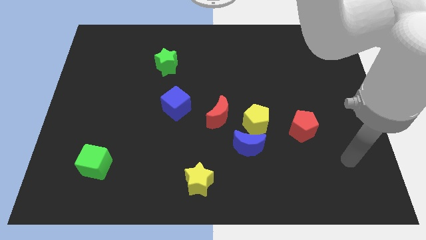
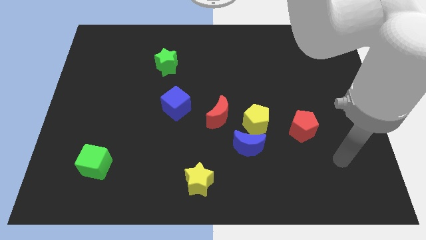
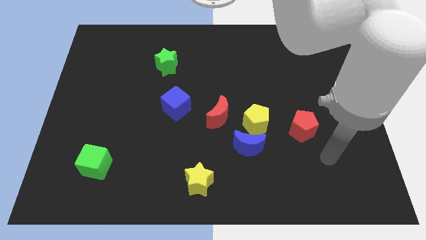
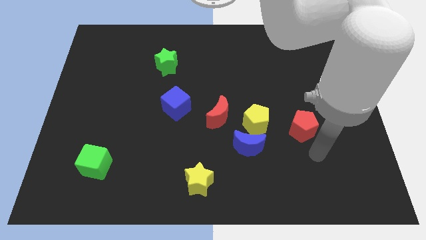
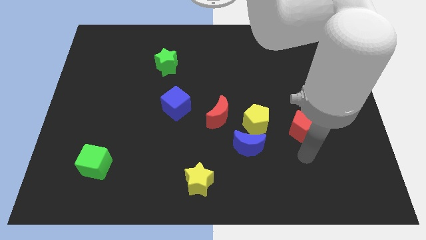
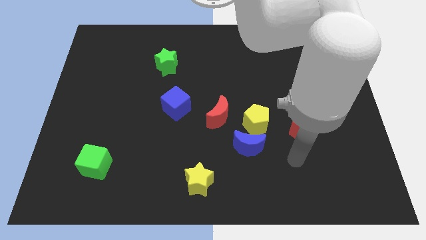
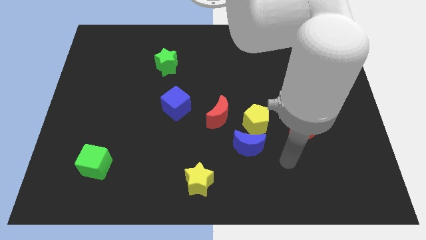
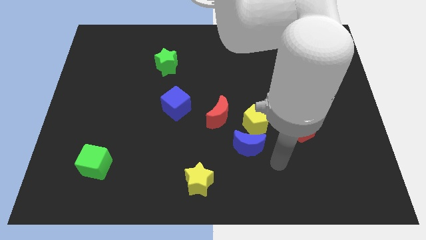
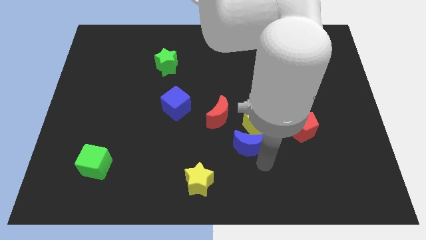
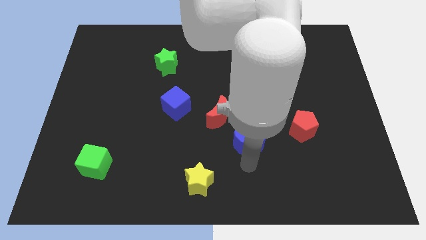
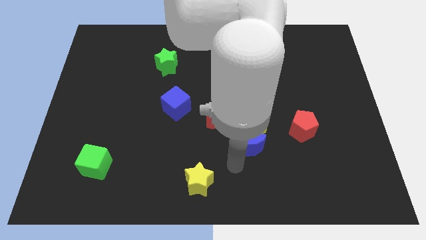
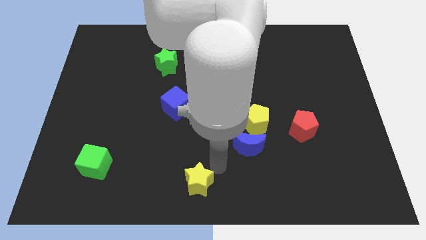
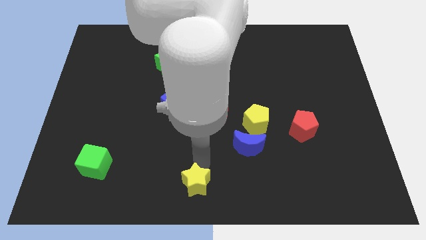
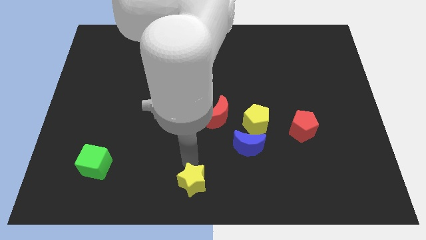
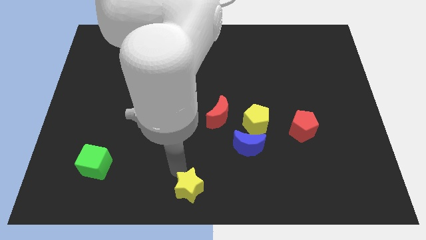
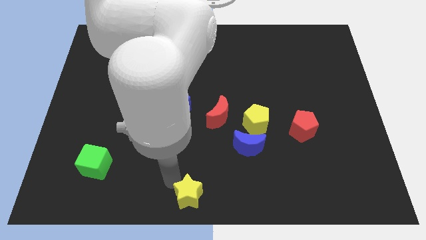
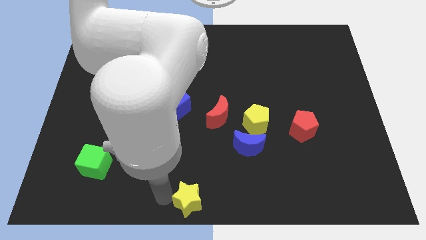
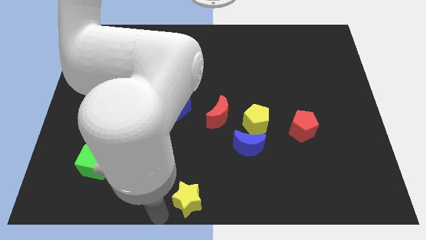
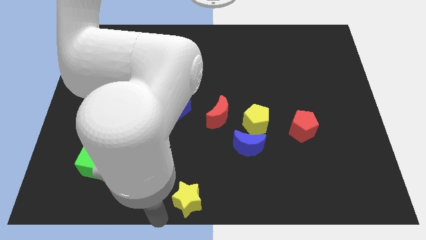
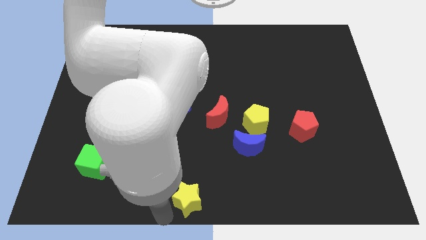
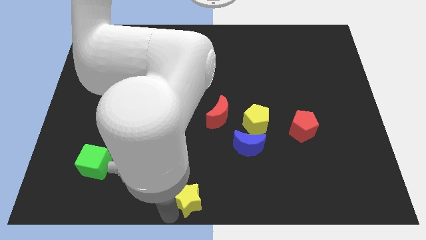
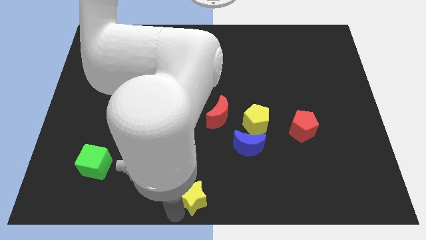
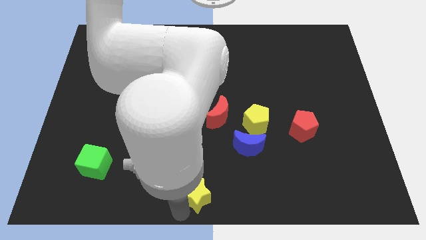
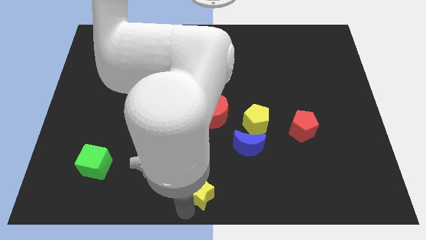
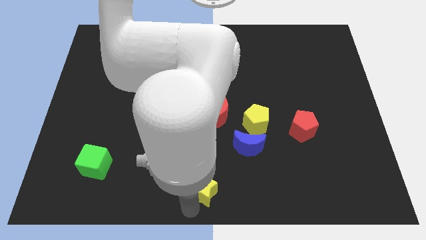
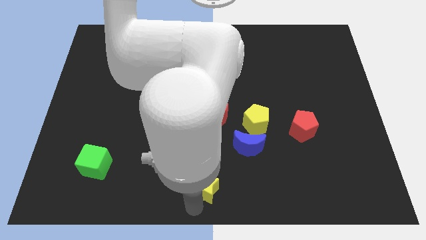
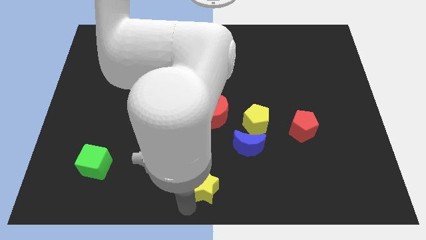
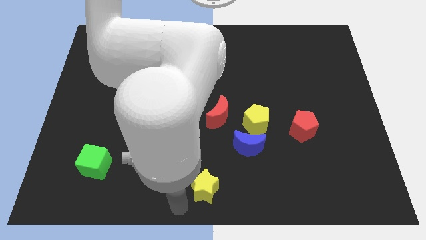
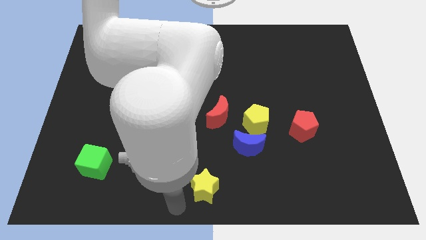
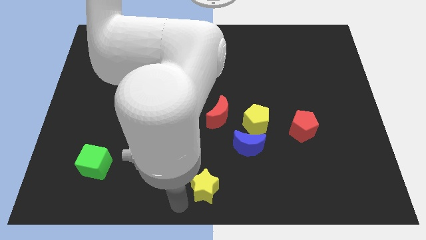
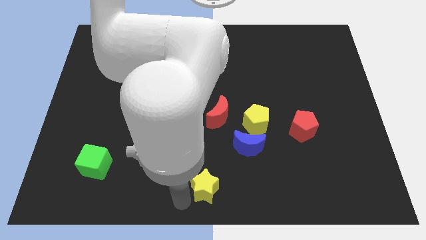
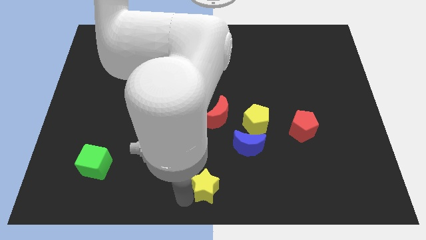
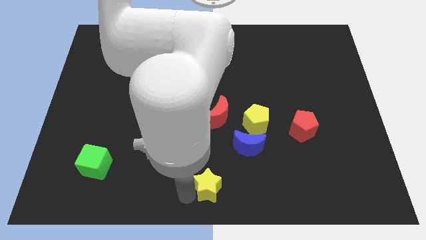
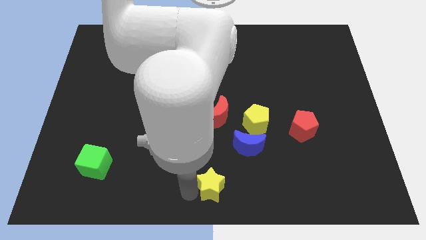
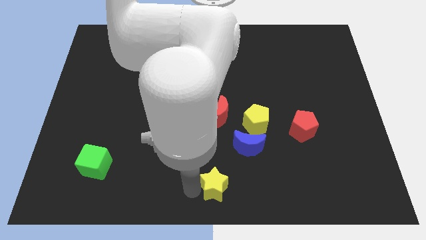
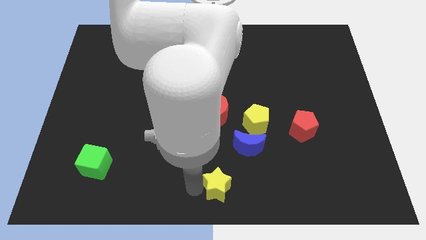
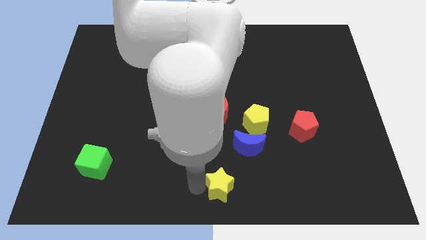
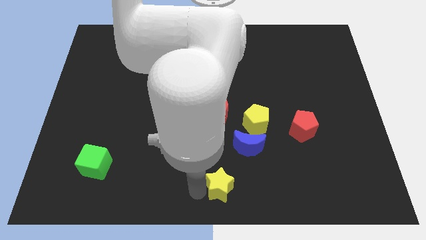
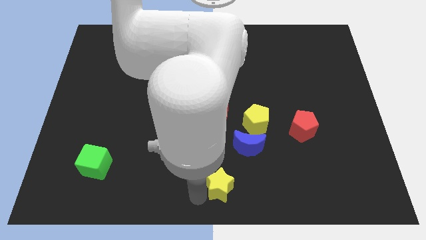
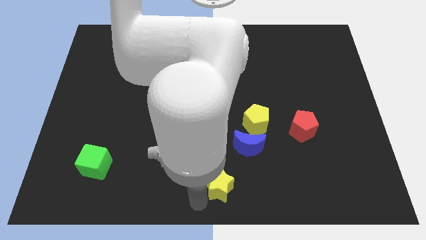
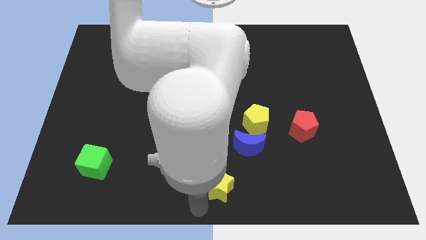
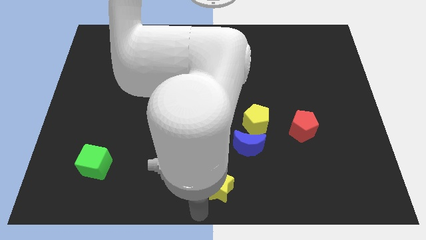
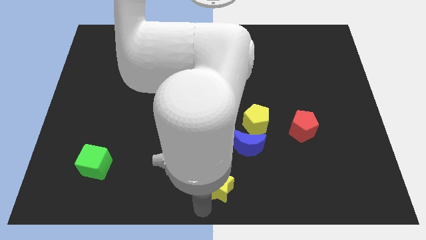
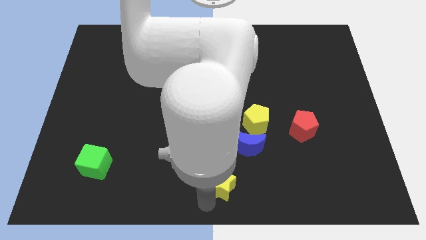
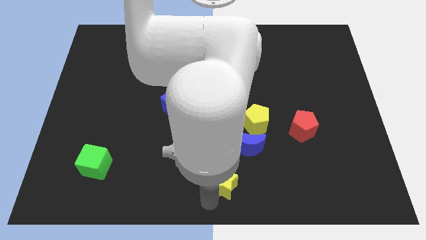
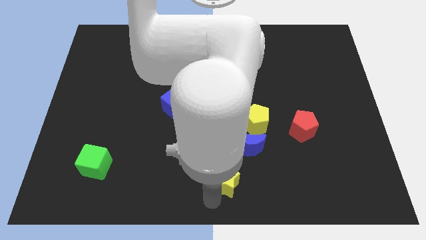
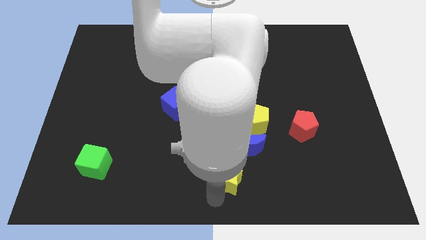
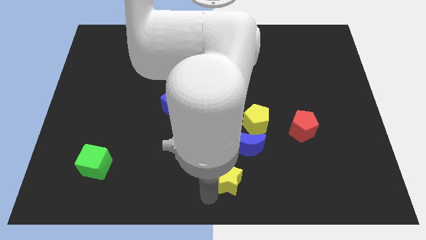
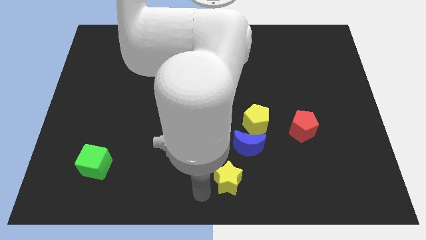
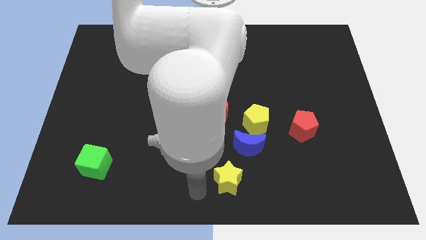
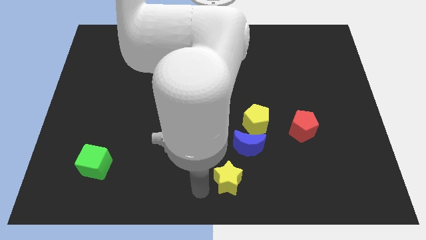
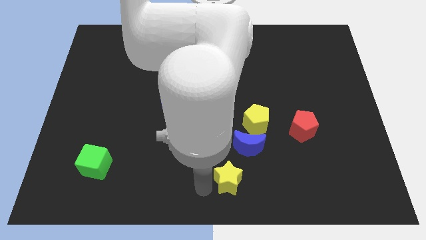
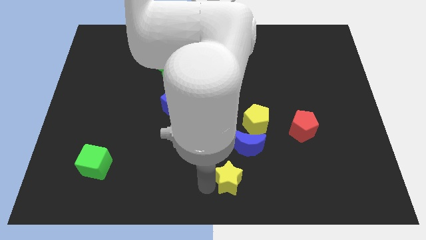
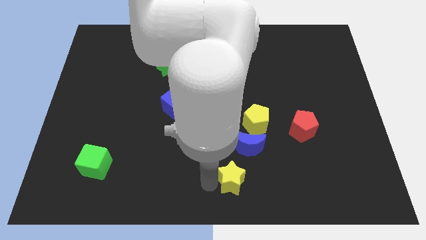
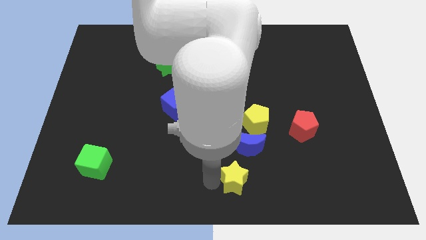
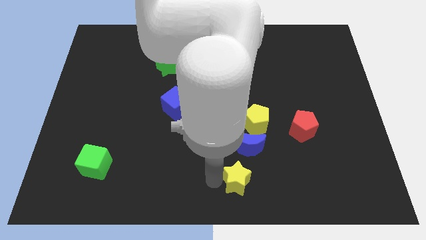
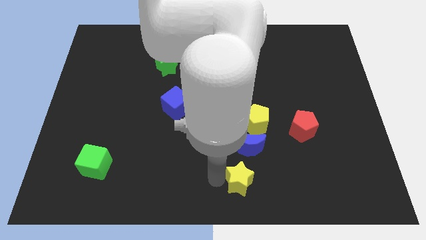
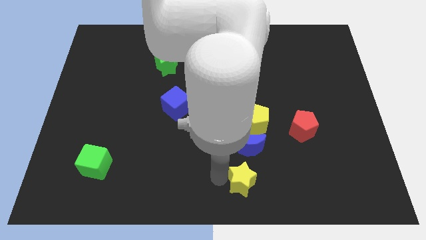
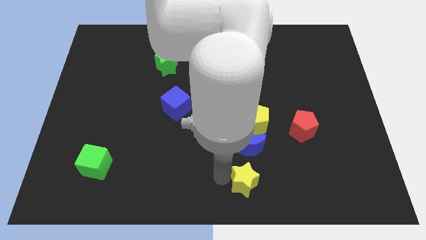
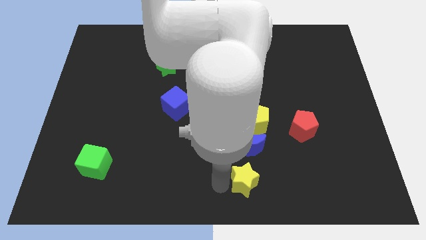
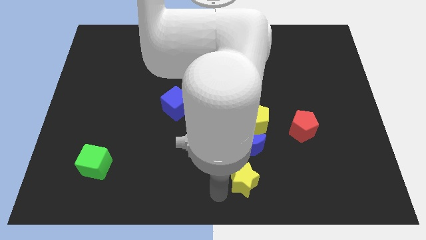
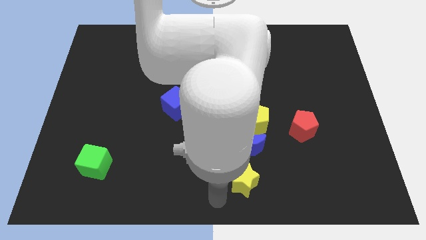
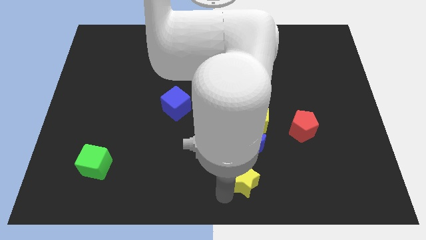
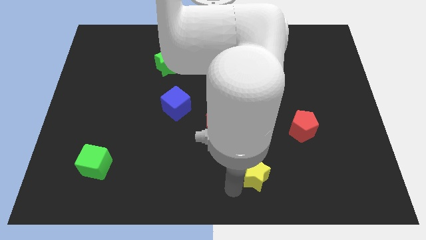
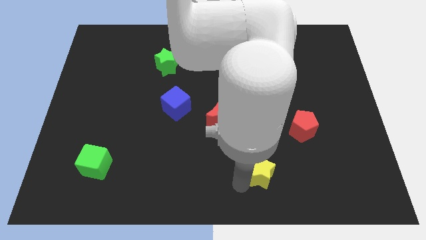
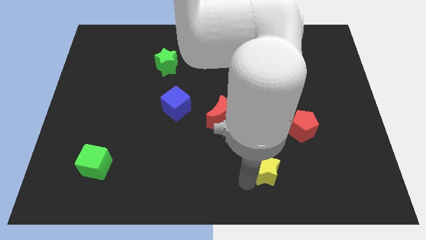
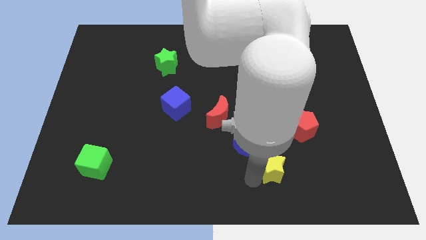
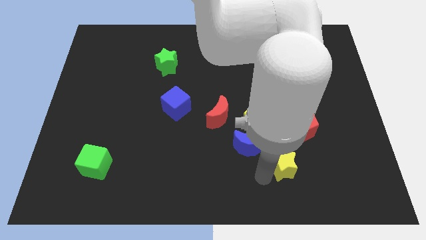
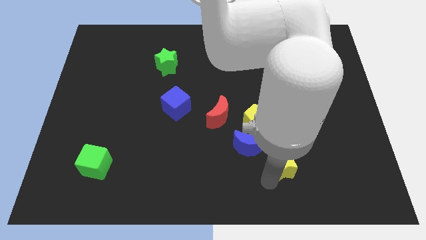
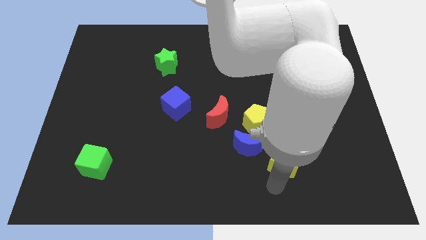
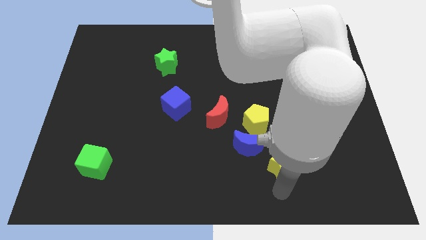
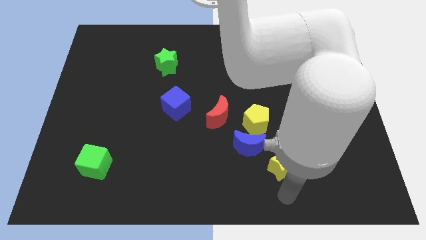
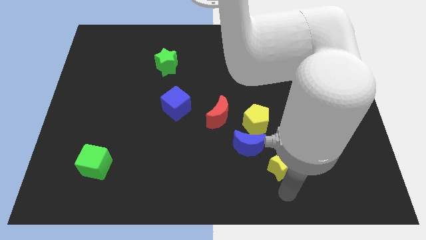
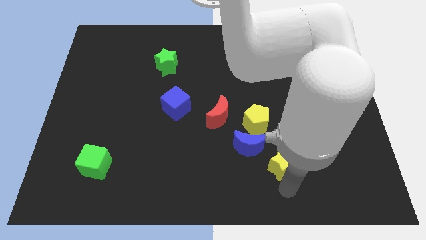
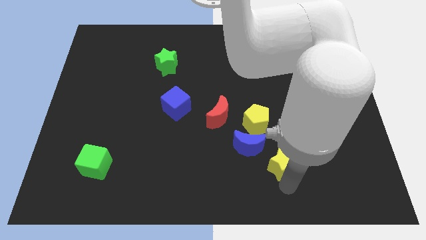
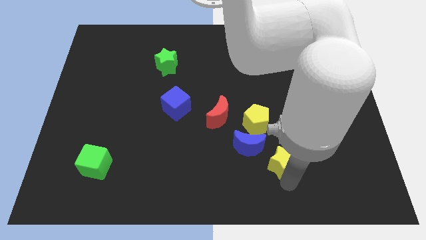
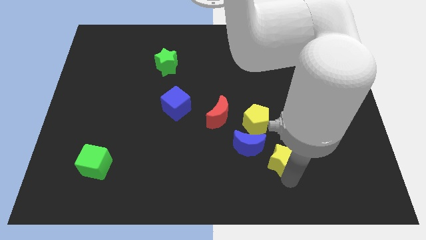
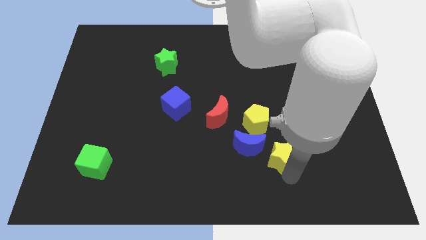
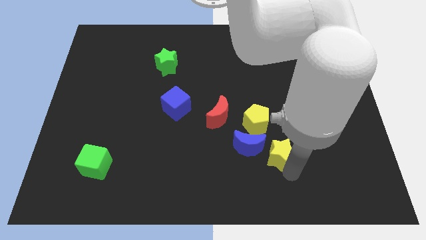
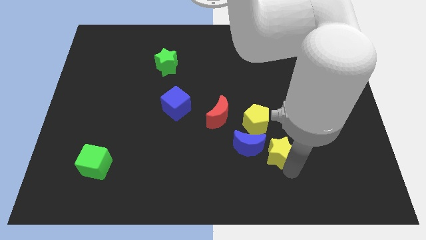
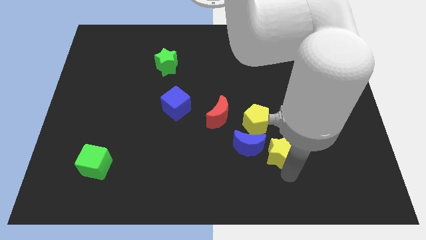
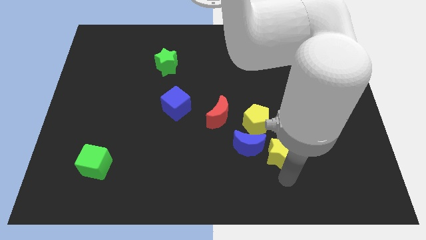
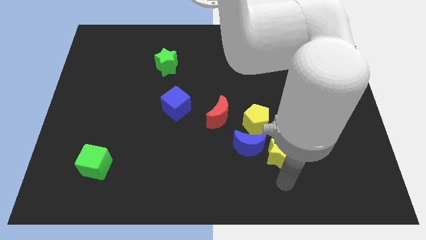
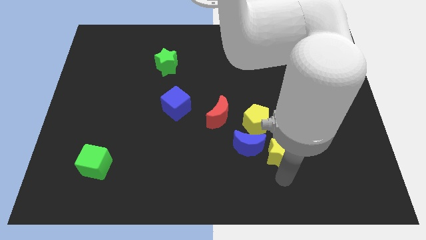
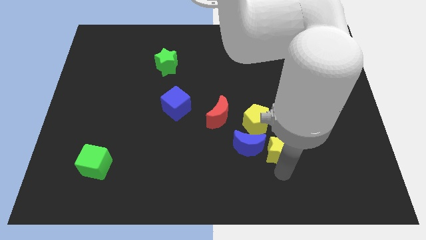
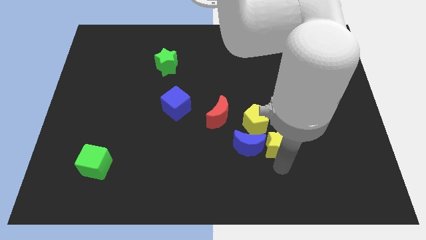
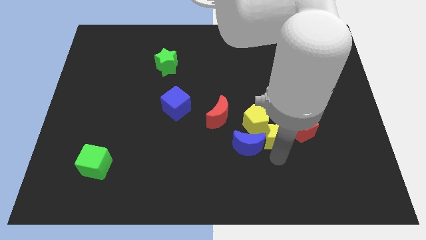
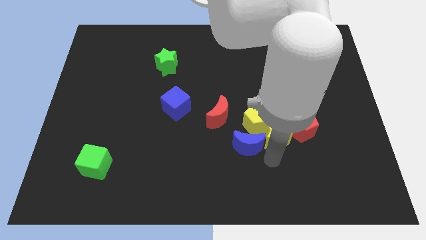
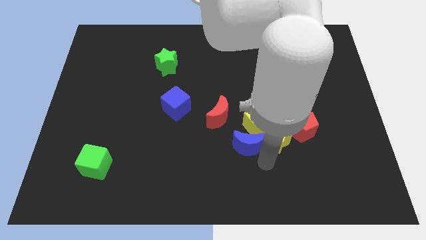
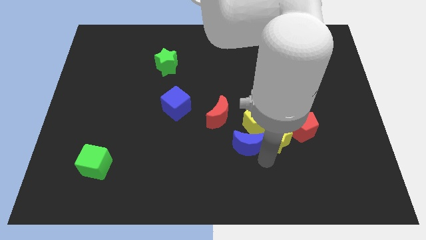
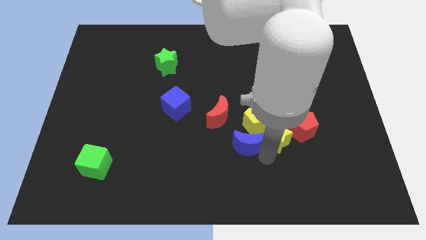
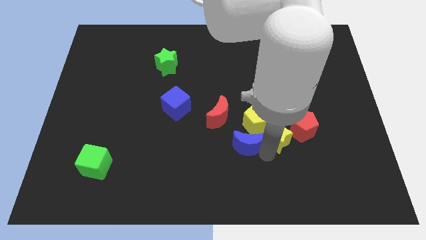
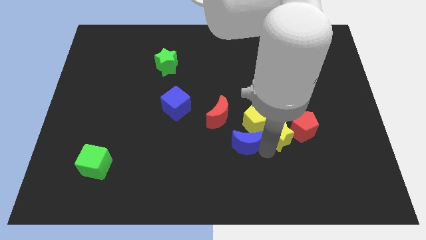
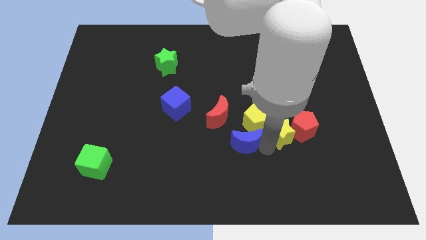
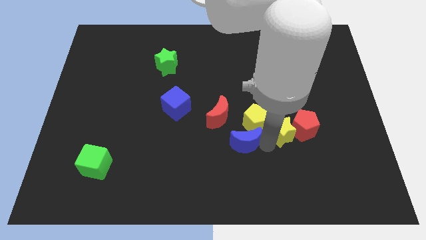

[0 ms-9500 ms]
push the yellow star up and then right
